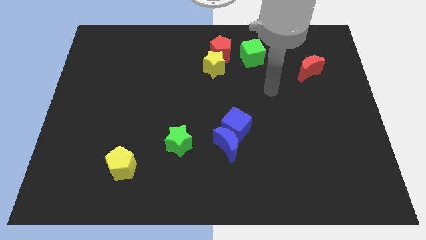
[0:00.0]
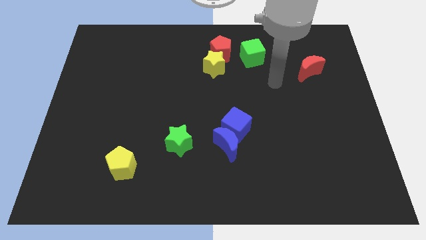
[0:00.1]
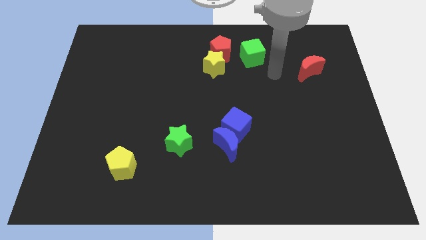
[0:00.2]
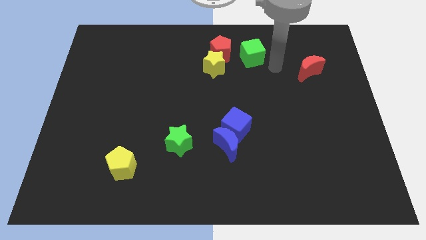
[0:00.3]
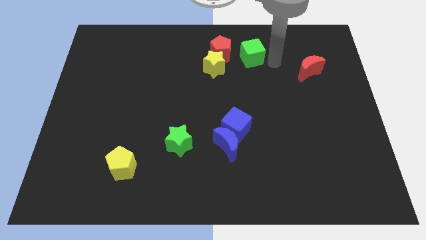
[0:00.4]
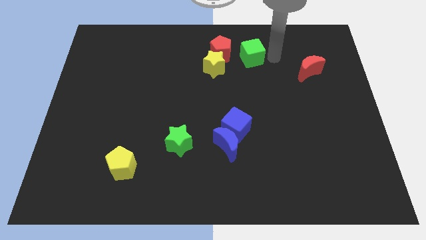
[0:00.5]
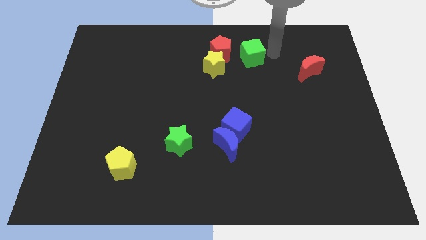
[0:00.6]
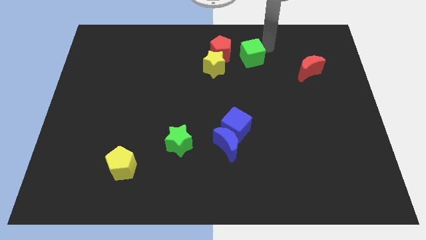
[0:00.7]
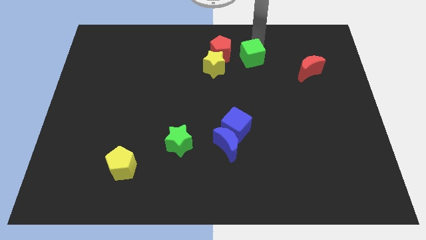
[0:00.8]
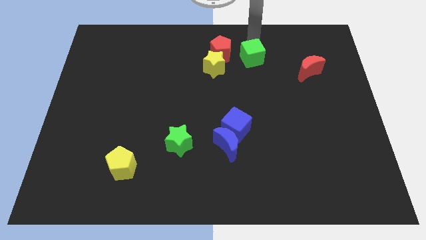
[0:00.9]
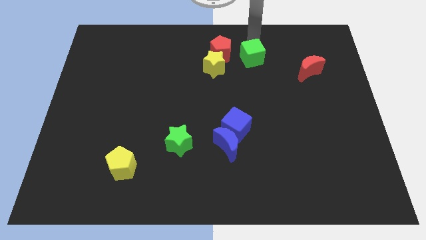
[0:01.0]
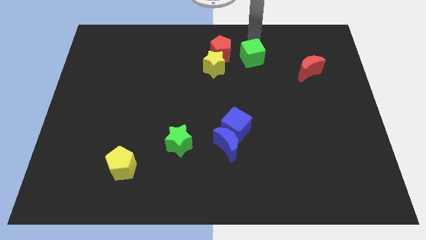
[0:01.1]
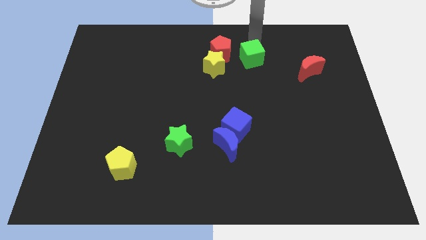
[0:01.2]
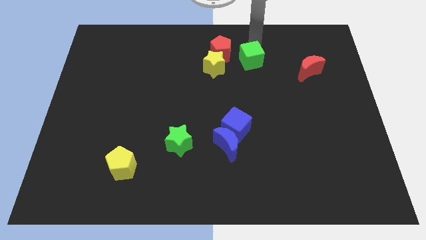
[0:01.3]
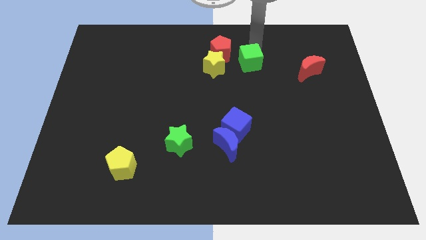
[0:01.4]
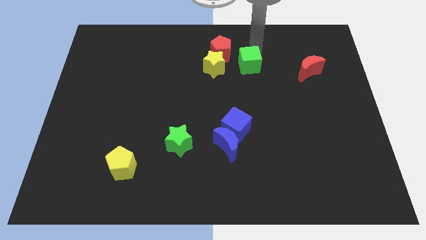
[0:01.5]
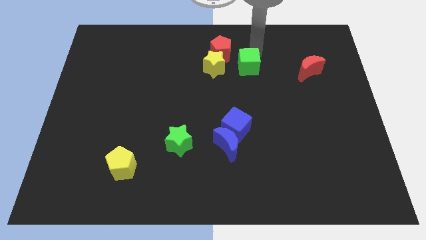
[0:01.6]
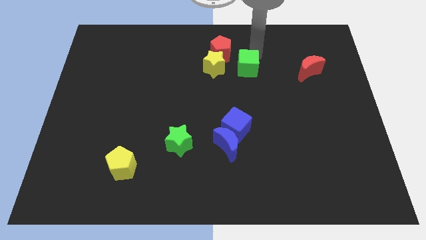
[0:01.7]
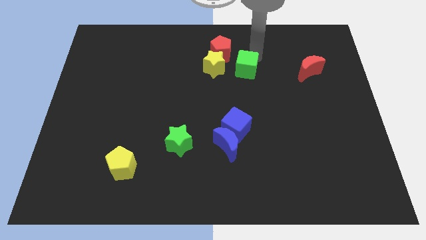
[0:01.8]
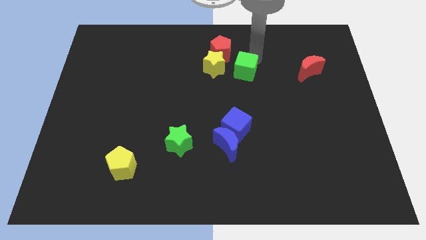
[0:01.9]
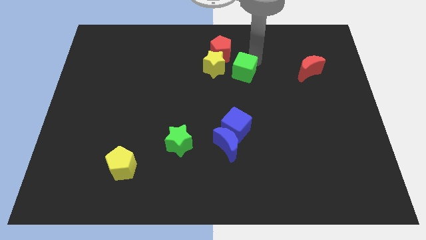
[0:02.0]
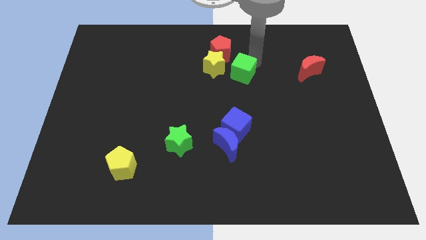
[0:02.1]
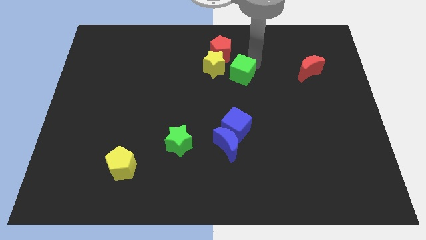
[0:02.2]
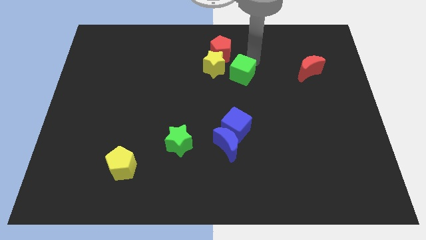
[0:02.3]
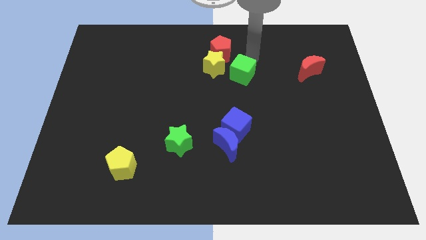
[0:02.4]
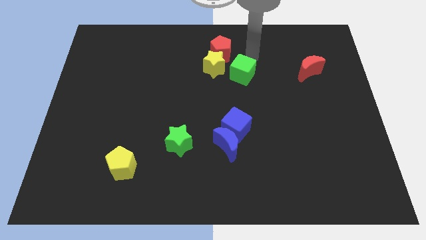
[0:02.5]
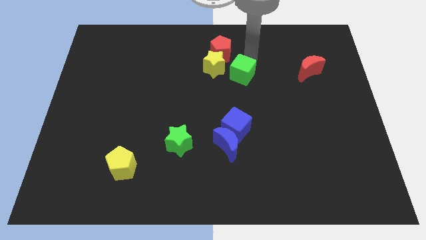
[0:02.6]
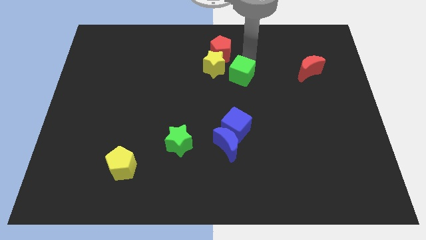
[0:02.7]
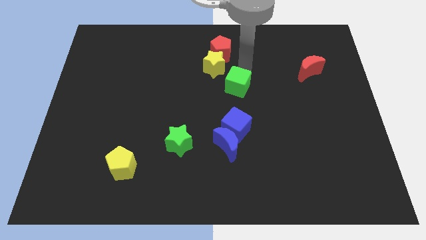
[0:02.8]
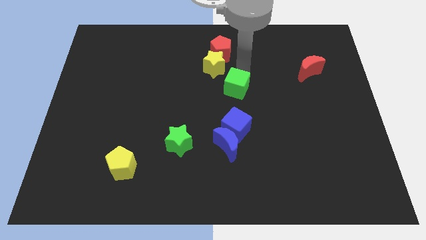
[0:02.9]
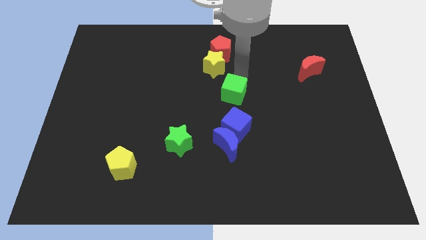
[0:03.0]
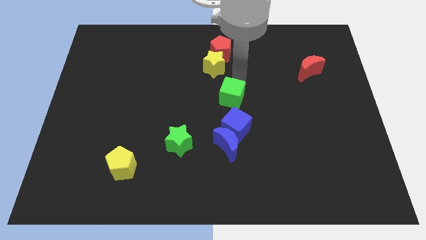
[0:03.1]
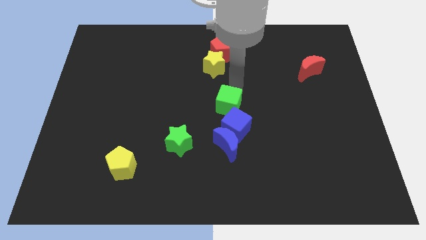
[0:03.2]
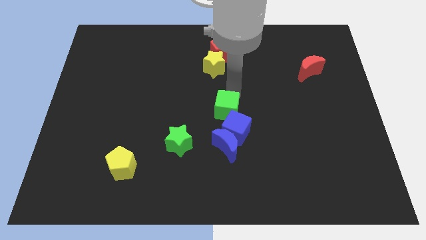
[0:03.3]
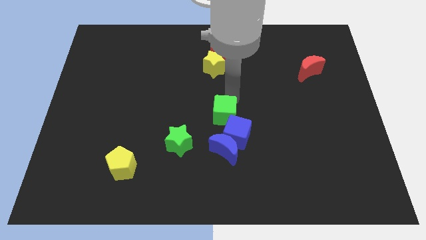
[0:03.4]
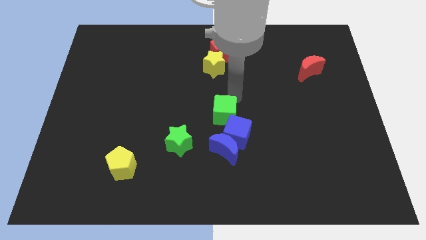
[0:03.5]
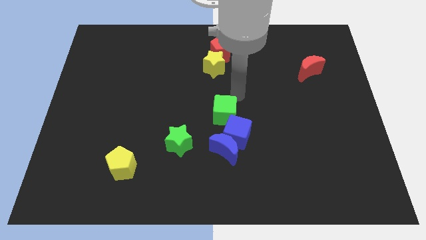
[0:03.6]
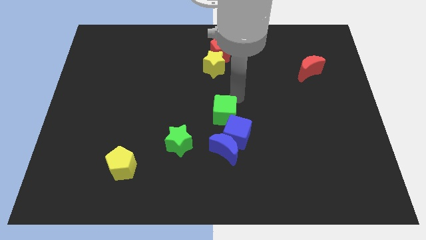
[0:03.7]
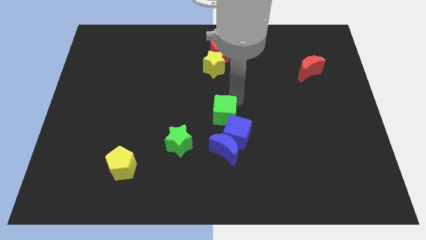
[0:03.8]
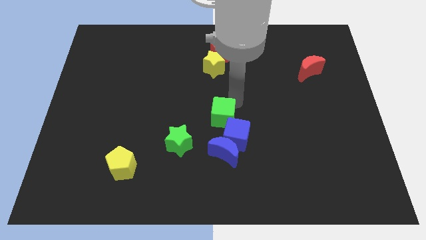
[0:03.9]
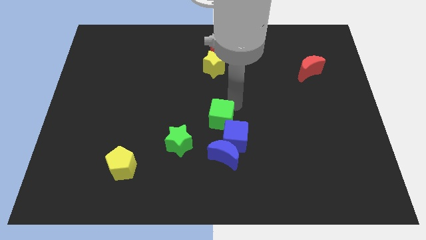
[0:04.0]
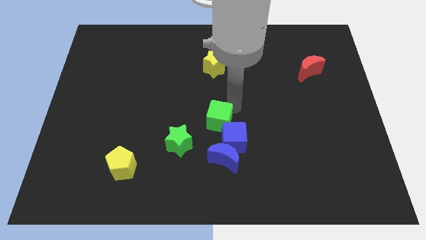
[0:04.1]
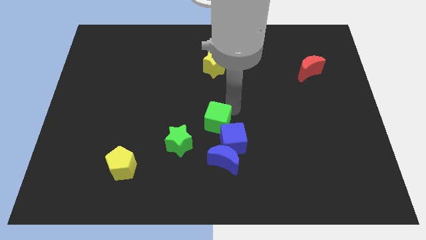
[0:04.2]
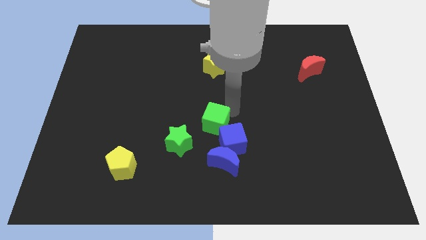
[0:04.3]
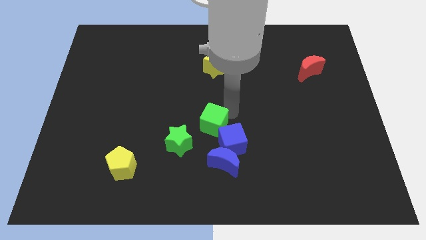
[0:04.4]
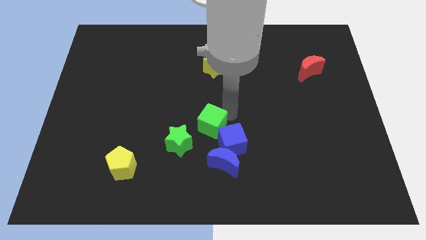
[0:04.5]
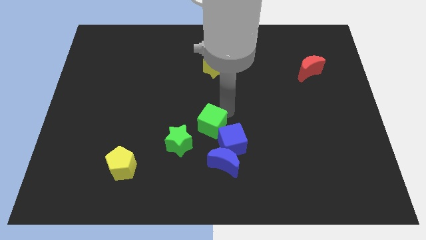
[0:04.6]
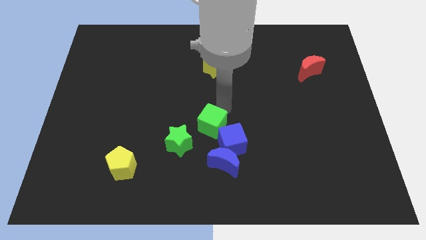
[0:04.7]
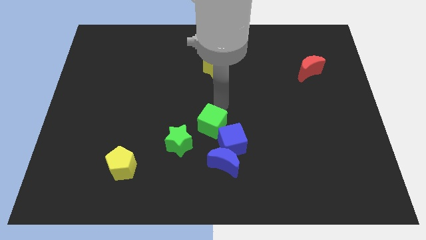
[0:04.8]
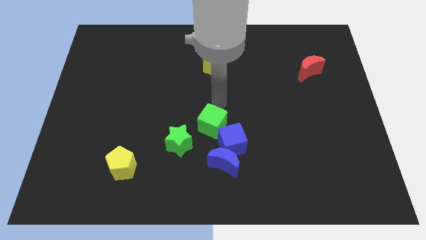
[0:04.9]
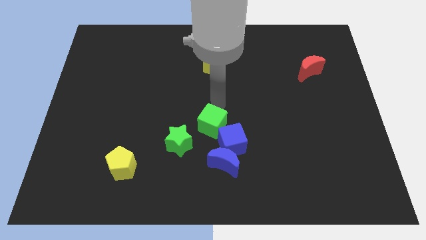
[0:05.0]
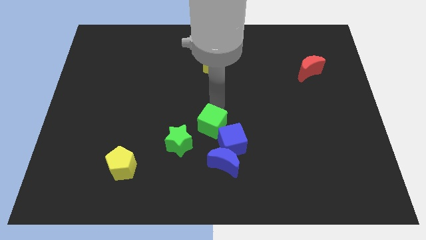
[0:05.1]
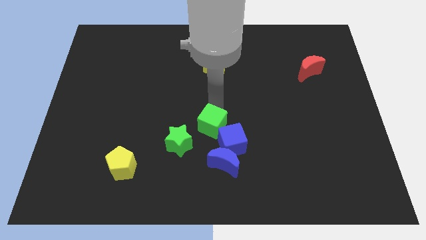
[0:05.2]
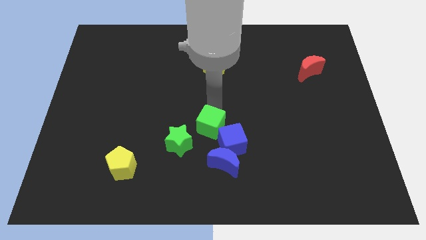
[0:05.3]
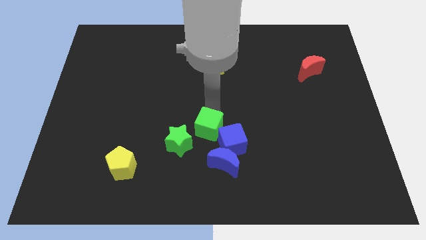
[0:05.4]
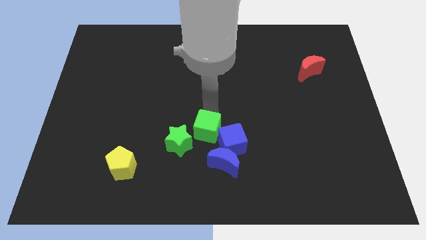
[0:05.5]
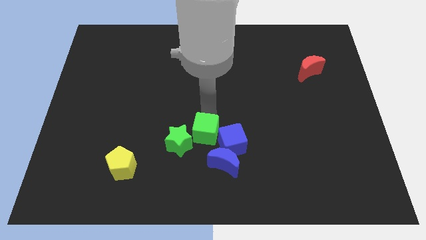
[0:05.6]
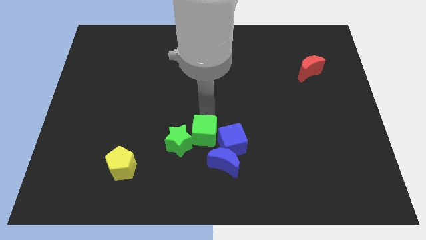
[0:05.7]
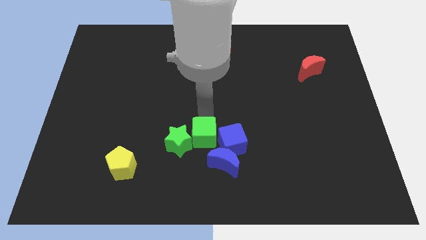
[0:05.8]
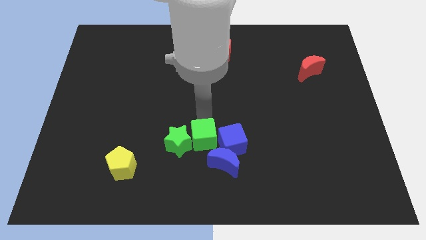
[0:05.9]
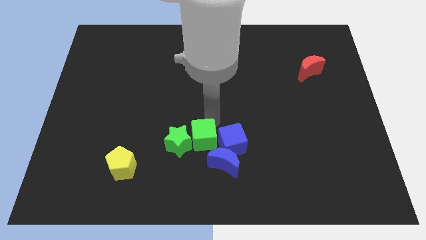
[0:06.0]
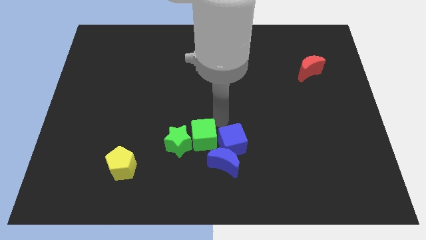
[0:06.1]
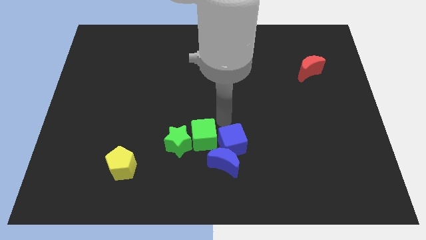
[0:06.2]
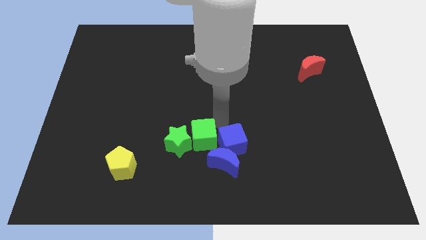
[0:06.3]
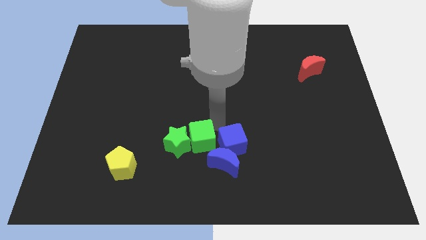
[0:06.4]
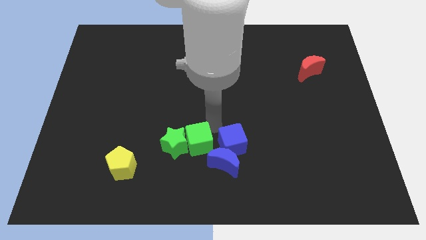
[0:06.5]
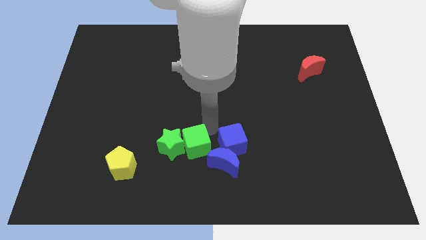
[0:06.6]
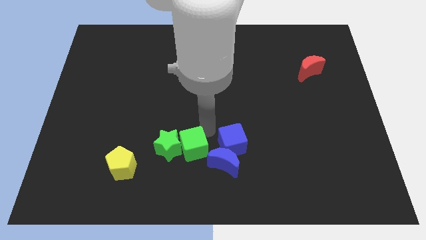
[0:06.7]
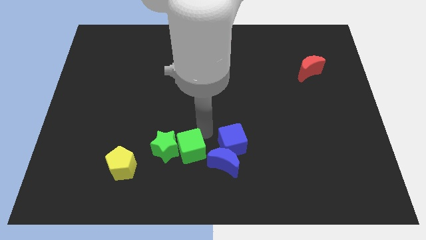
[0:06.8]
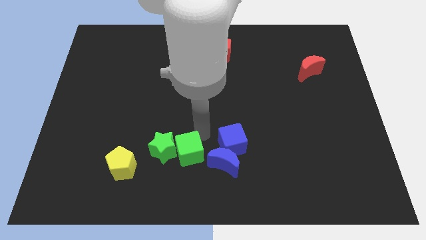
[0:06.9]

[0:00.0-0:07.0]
push the green cube to the right side of the yellow pentagon
